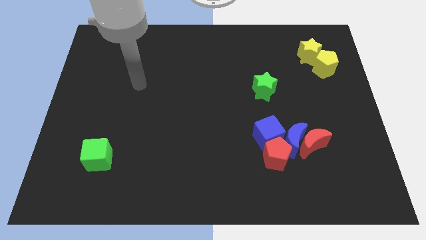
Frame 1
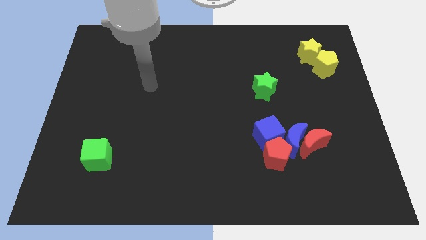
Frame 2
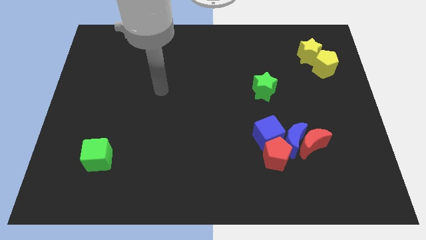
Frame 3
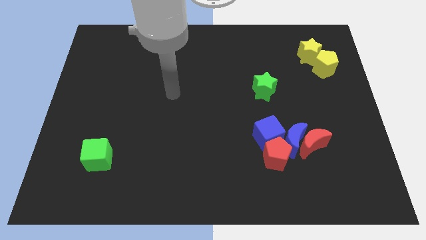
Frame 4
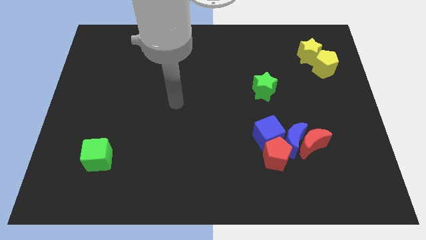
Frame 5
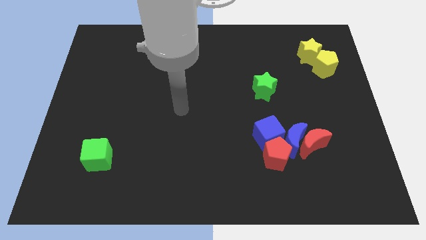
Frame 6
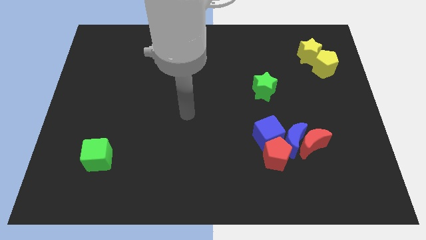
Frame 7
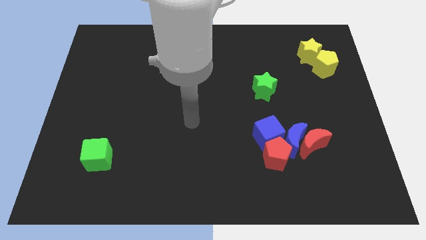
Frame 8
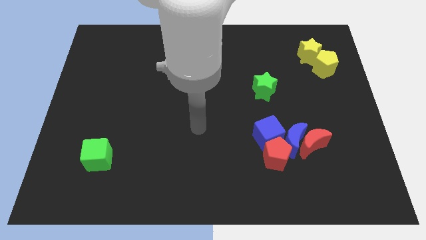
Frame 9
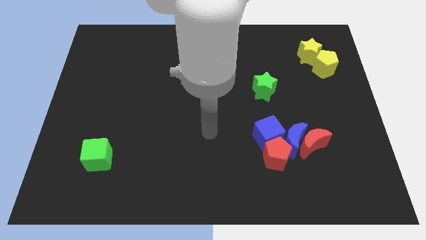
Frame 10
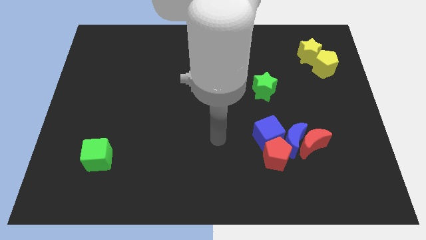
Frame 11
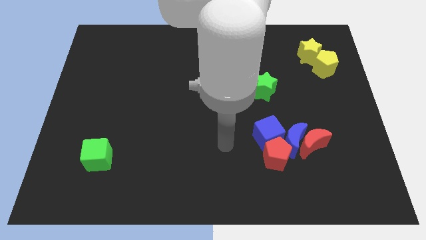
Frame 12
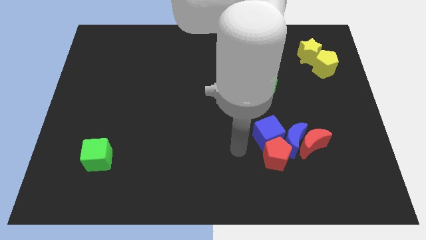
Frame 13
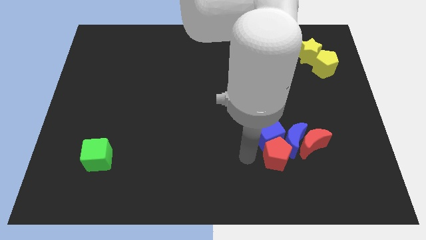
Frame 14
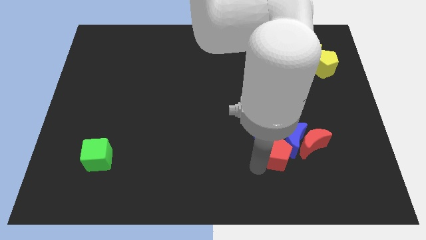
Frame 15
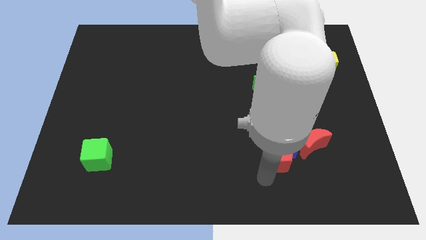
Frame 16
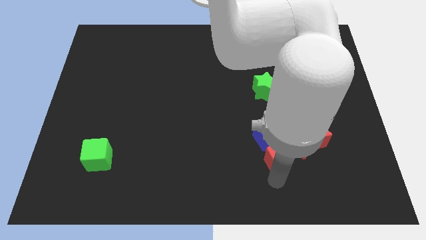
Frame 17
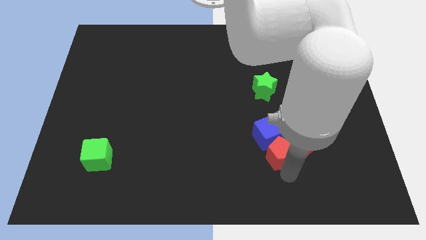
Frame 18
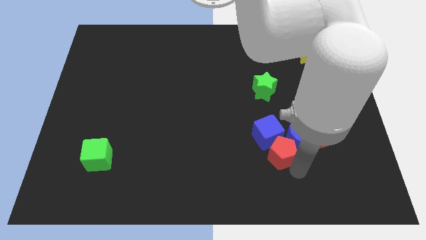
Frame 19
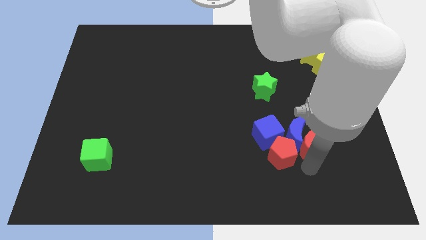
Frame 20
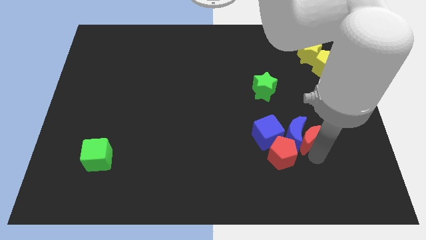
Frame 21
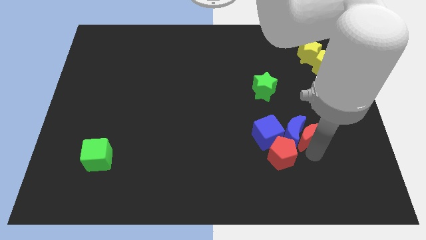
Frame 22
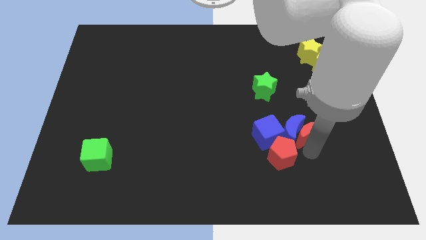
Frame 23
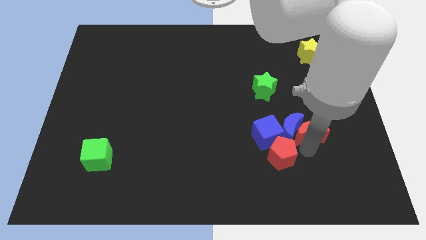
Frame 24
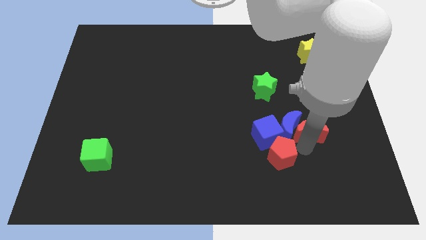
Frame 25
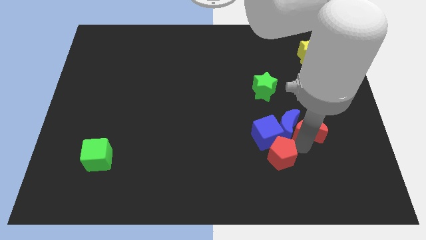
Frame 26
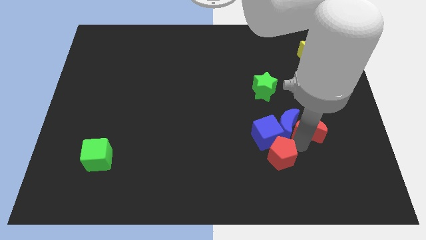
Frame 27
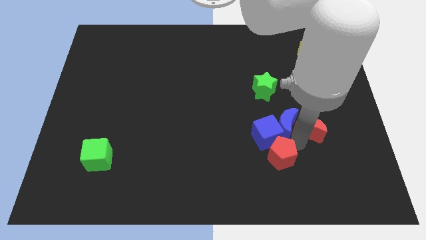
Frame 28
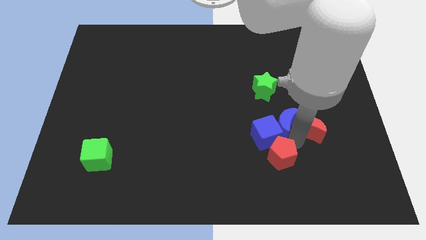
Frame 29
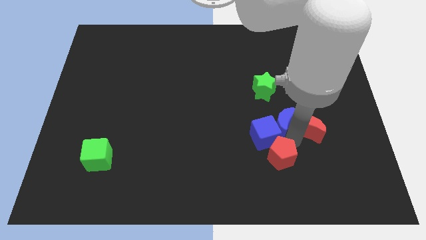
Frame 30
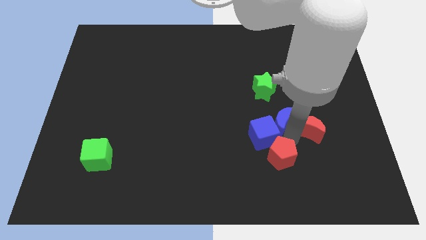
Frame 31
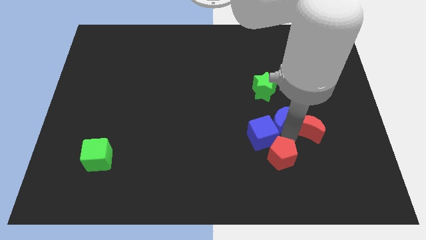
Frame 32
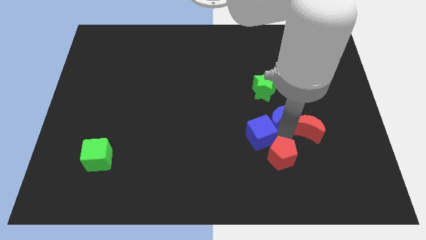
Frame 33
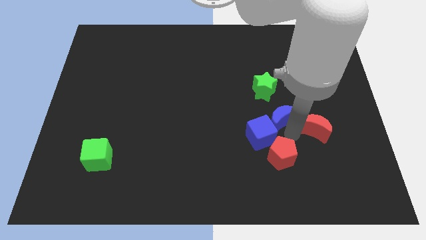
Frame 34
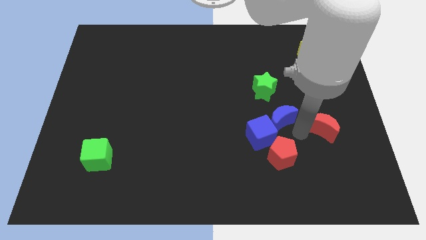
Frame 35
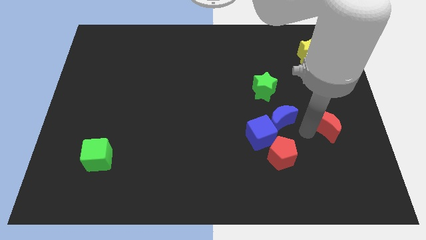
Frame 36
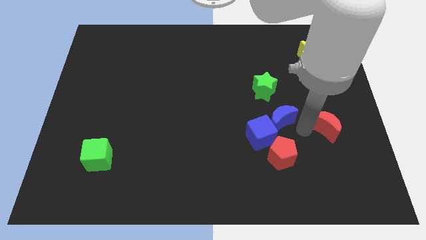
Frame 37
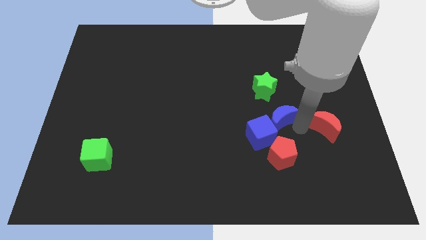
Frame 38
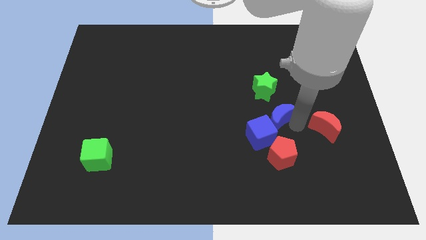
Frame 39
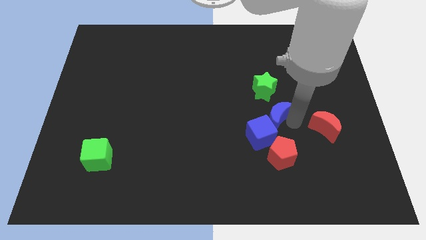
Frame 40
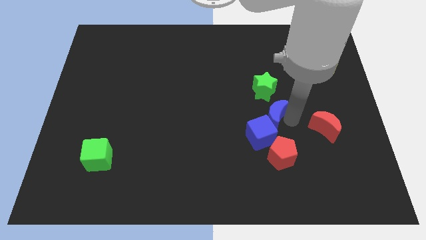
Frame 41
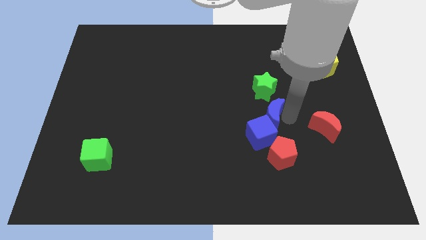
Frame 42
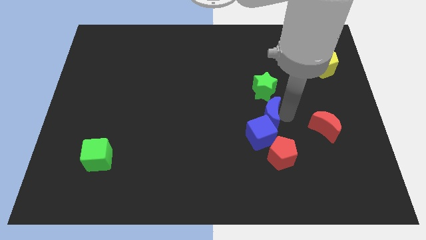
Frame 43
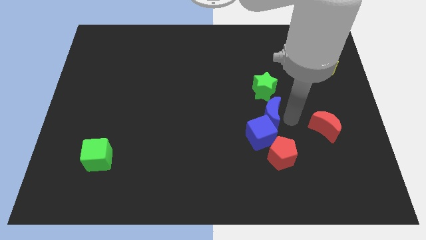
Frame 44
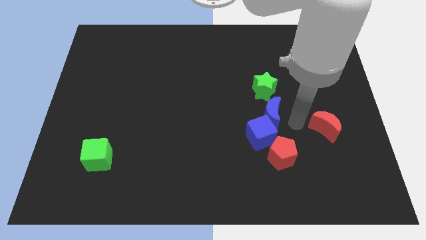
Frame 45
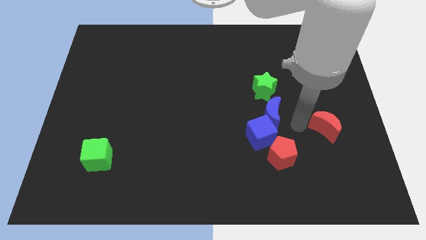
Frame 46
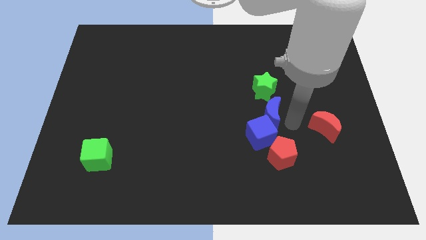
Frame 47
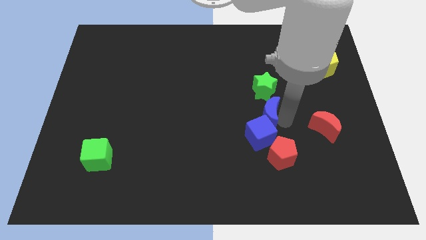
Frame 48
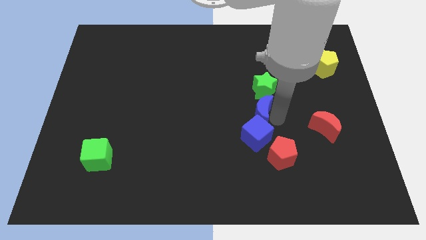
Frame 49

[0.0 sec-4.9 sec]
put the blue moon to the center

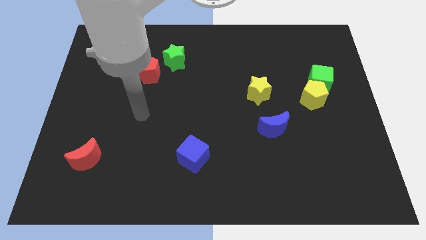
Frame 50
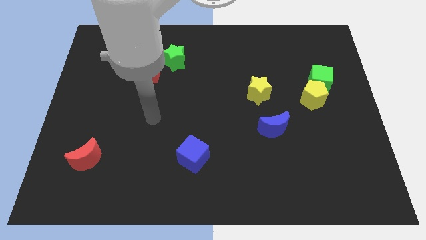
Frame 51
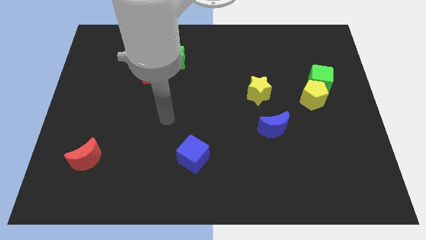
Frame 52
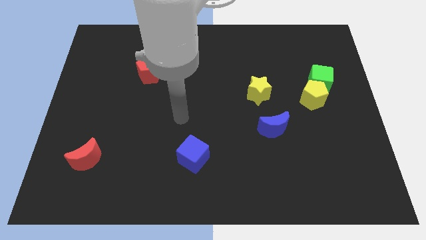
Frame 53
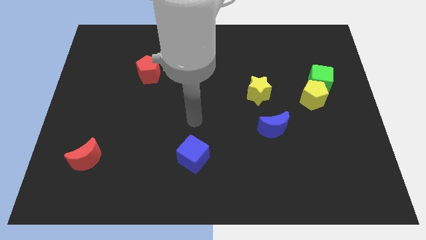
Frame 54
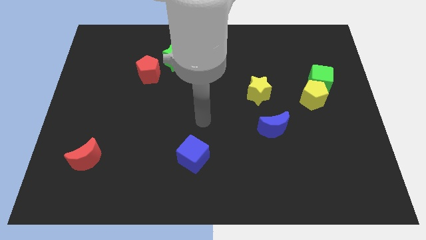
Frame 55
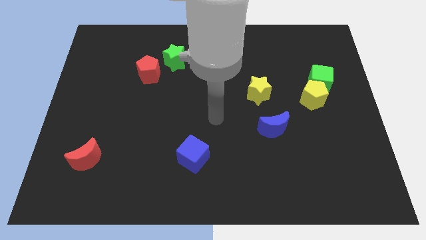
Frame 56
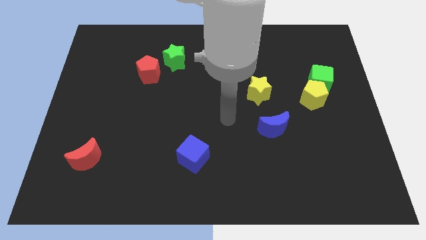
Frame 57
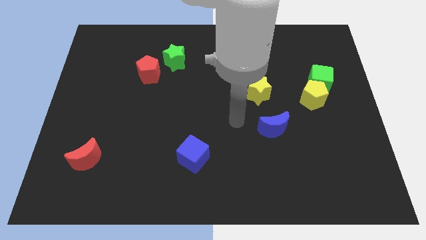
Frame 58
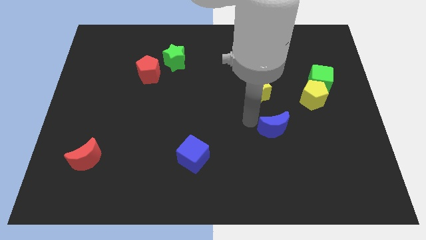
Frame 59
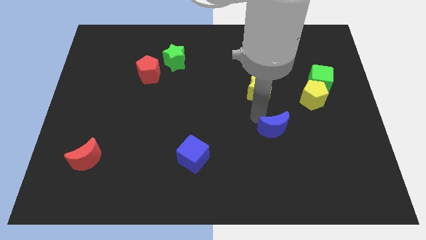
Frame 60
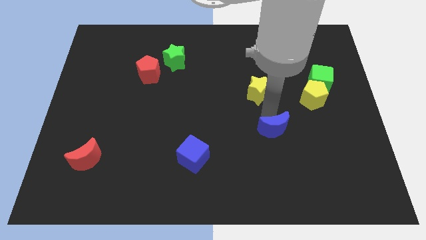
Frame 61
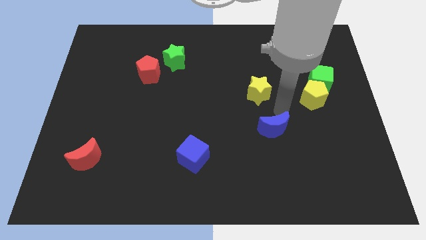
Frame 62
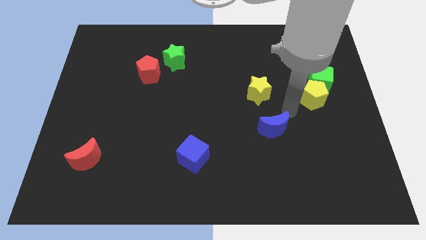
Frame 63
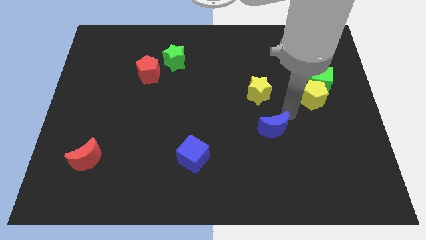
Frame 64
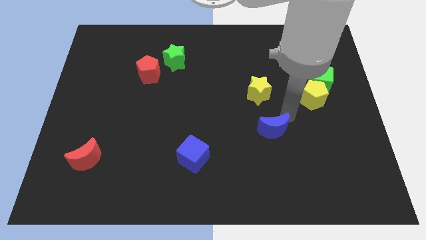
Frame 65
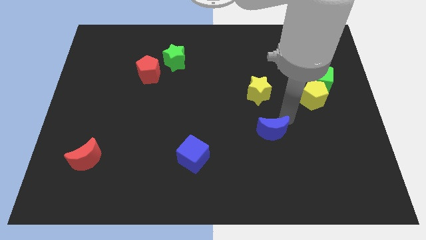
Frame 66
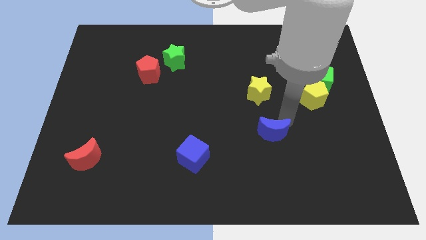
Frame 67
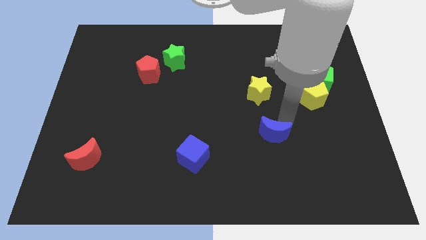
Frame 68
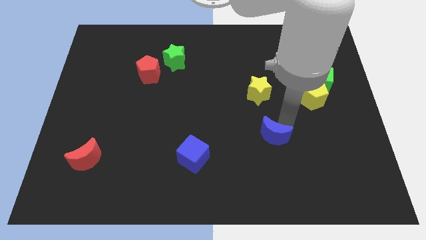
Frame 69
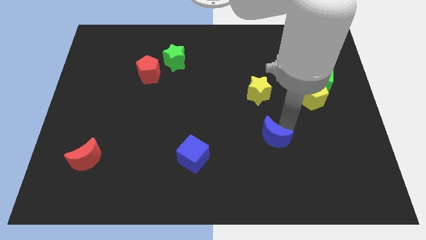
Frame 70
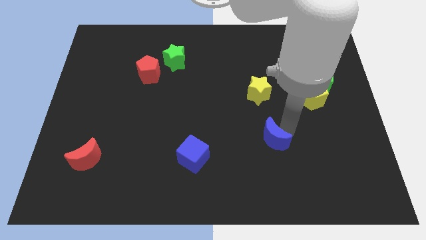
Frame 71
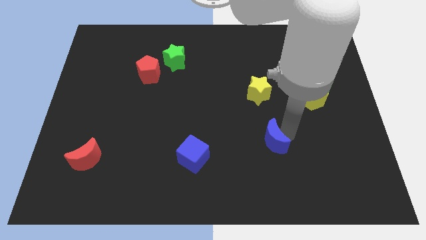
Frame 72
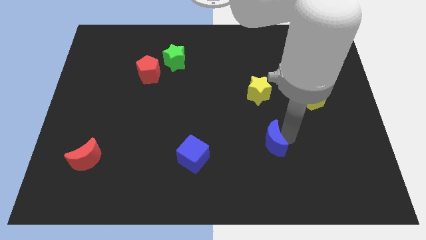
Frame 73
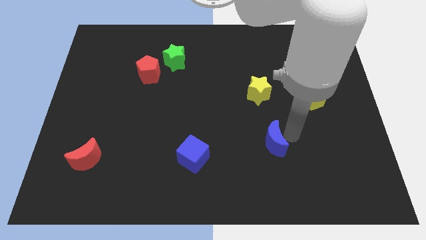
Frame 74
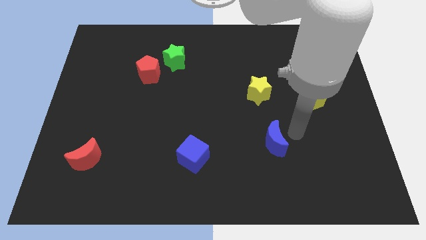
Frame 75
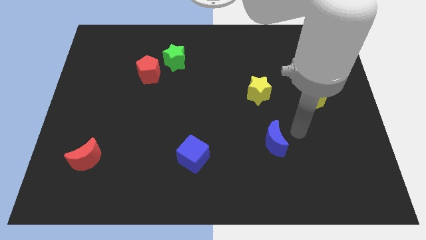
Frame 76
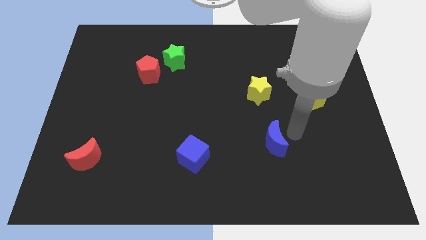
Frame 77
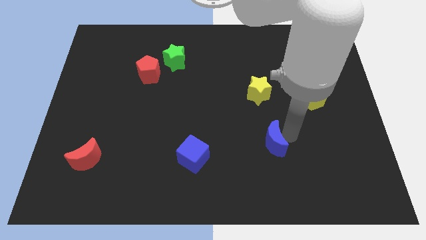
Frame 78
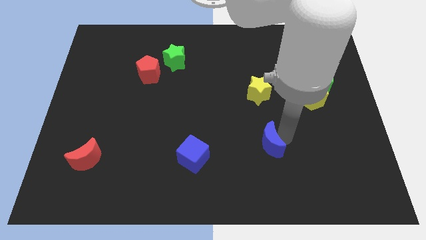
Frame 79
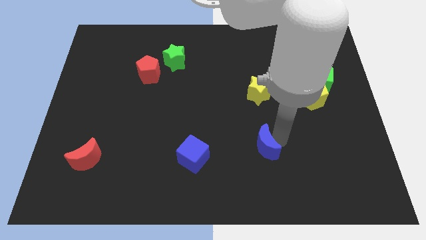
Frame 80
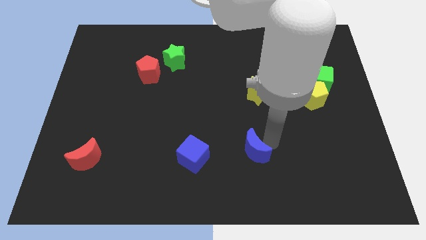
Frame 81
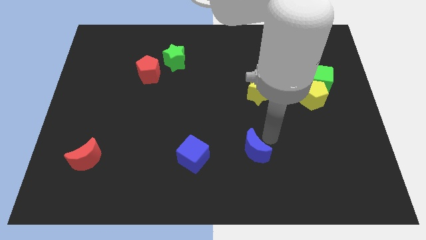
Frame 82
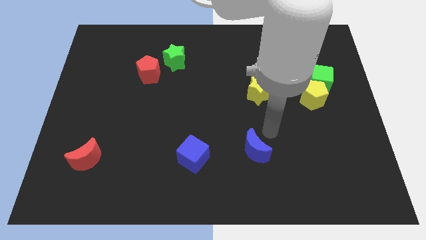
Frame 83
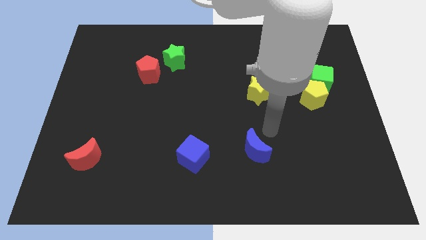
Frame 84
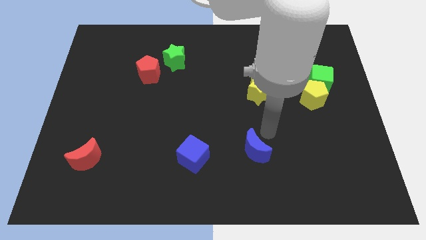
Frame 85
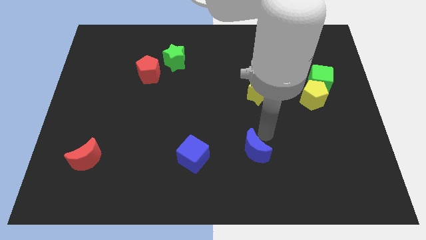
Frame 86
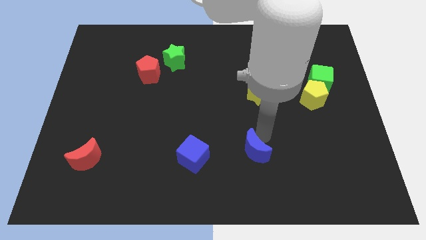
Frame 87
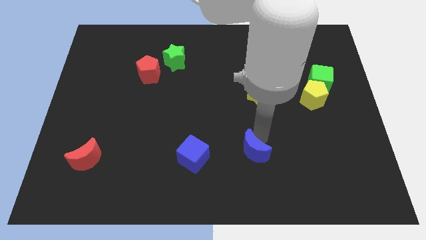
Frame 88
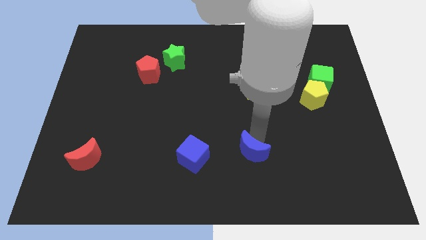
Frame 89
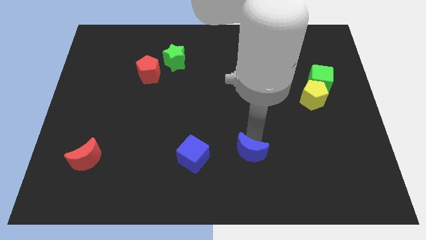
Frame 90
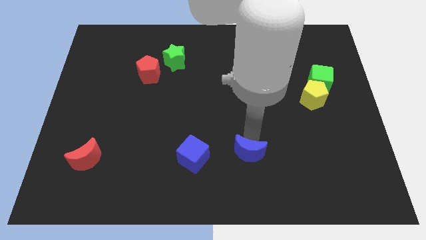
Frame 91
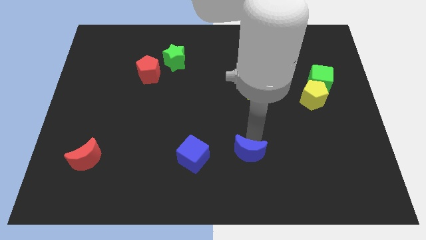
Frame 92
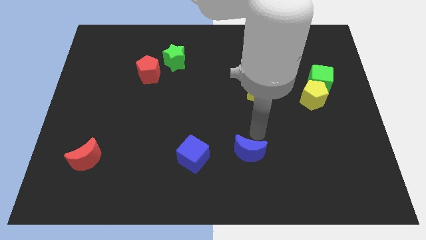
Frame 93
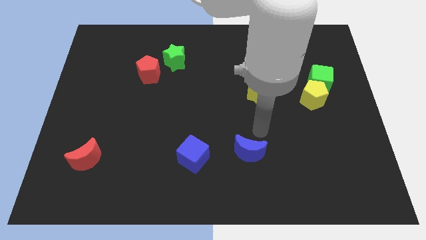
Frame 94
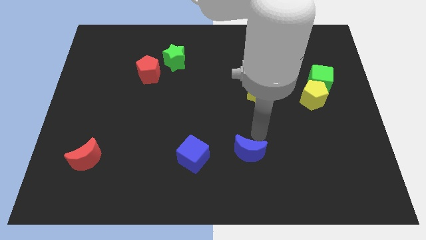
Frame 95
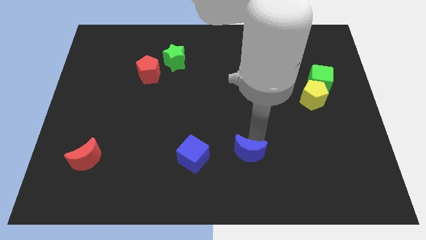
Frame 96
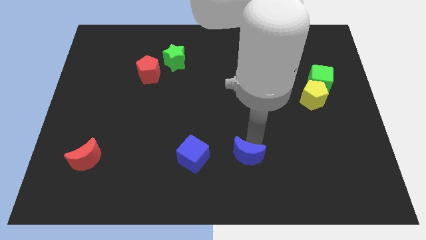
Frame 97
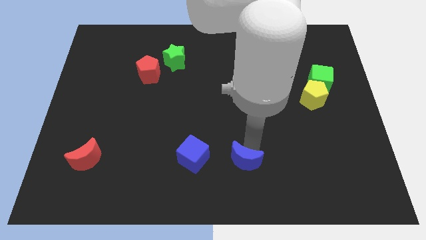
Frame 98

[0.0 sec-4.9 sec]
slide the blue moon to the bottom
